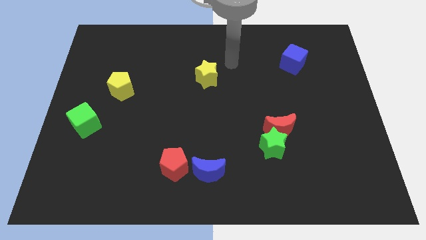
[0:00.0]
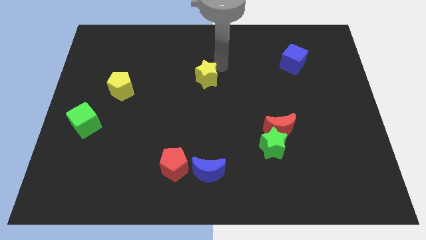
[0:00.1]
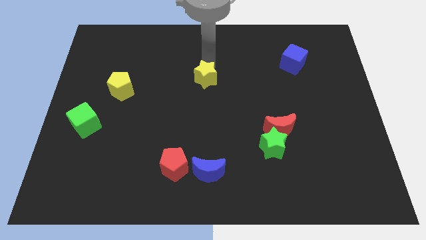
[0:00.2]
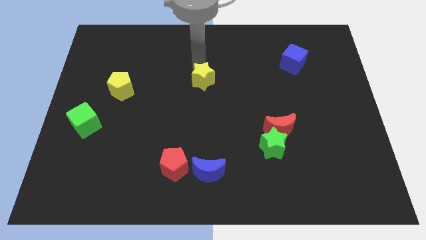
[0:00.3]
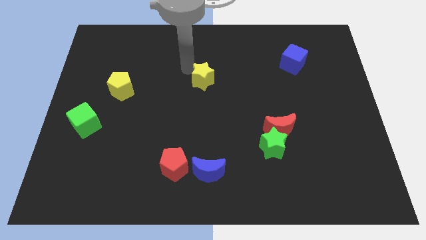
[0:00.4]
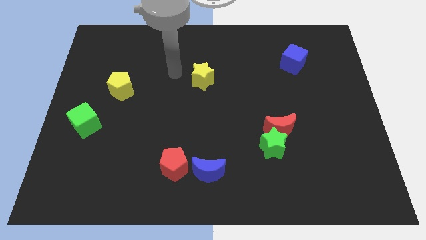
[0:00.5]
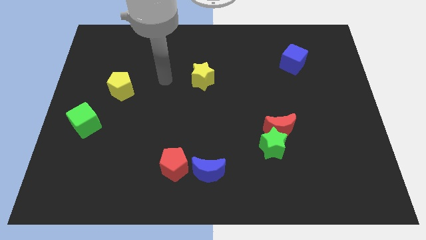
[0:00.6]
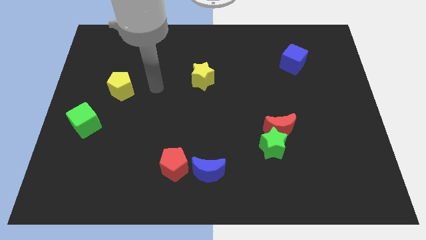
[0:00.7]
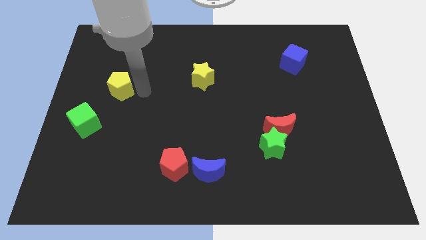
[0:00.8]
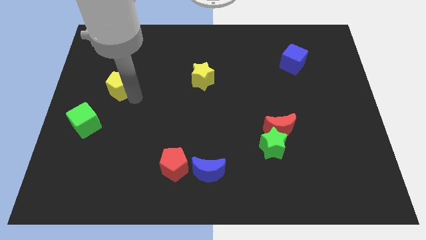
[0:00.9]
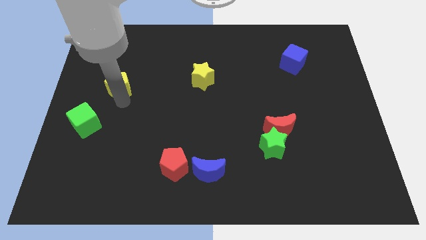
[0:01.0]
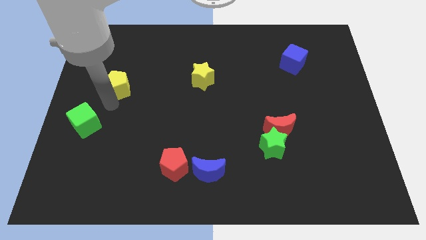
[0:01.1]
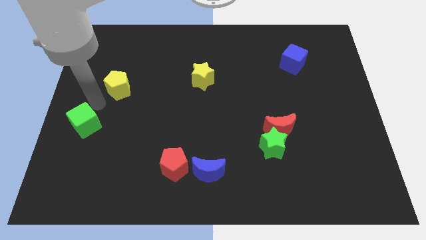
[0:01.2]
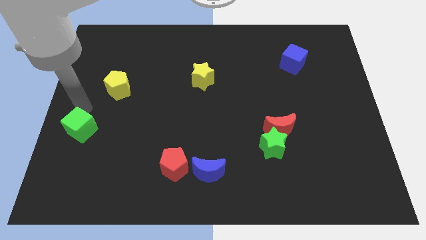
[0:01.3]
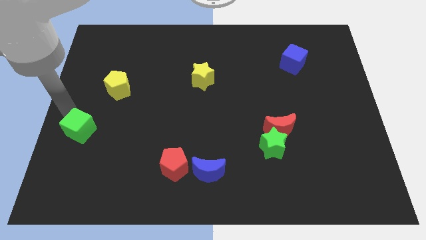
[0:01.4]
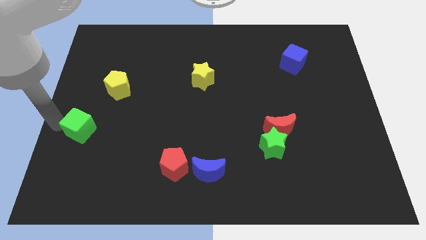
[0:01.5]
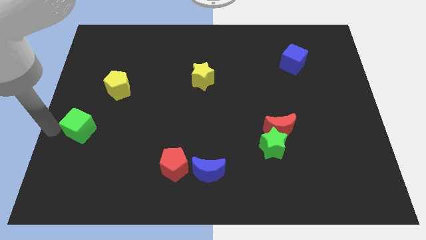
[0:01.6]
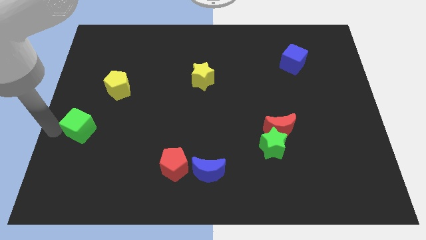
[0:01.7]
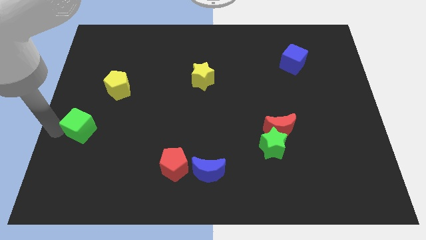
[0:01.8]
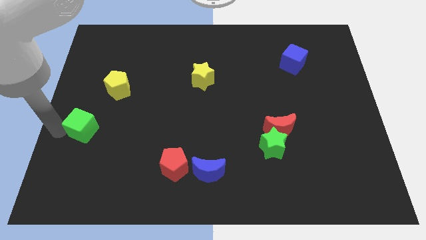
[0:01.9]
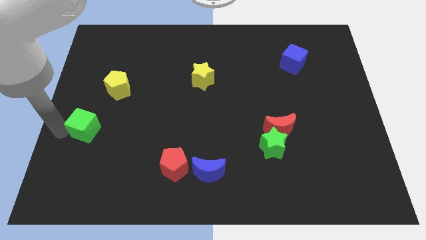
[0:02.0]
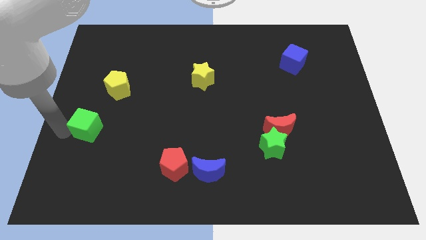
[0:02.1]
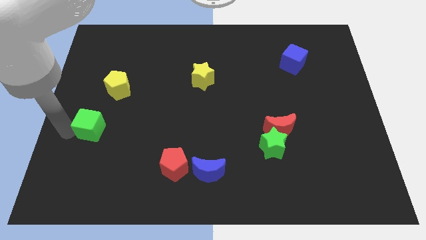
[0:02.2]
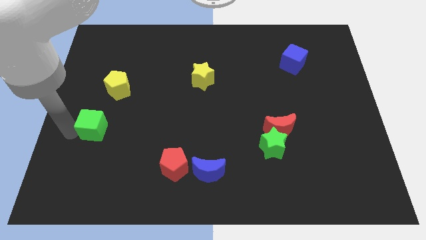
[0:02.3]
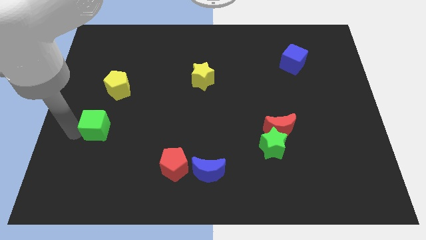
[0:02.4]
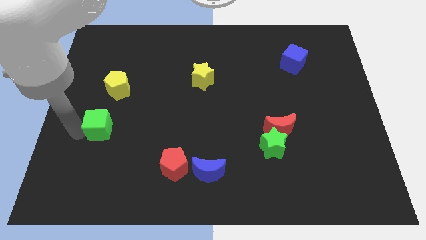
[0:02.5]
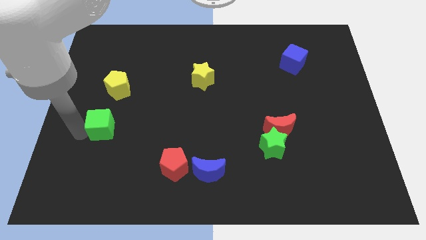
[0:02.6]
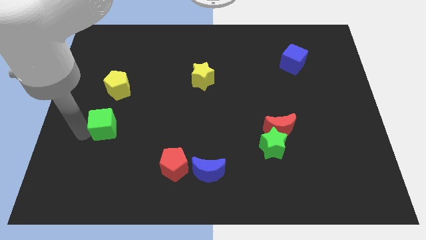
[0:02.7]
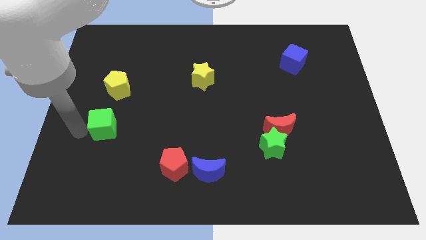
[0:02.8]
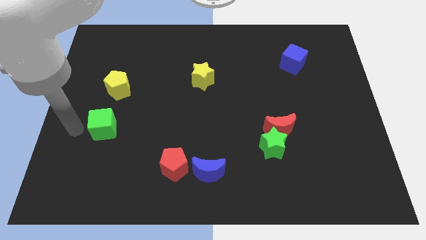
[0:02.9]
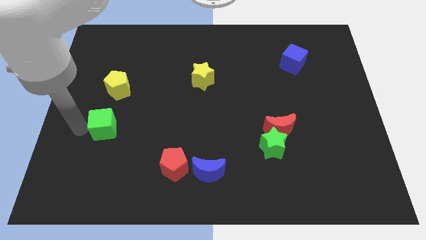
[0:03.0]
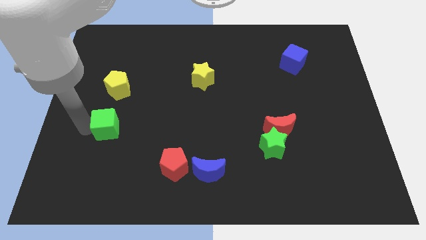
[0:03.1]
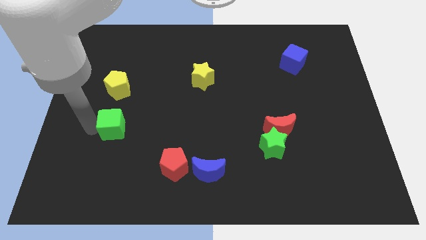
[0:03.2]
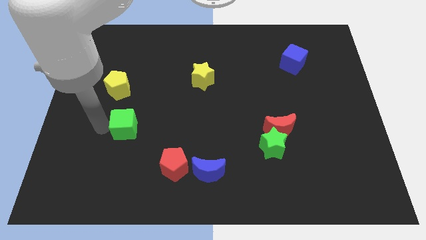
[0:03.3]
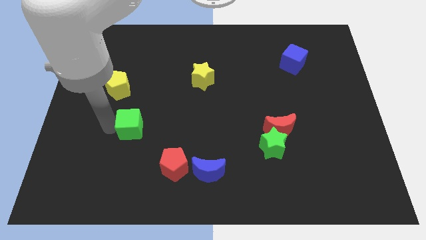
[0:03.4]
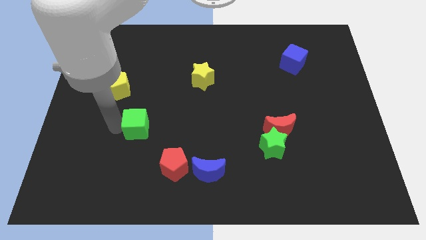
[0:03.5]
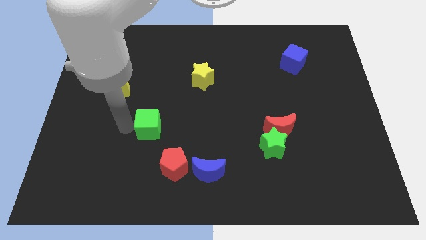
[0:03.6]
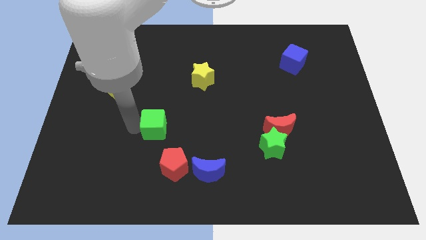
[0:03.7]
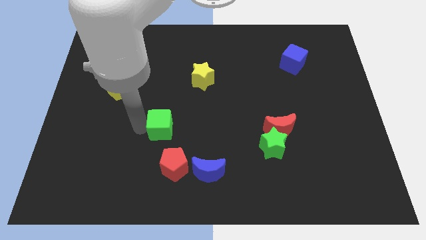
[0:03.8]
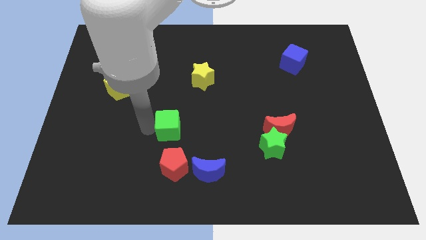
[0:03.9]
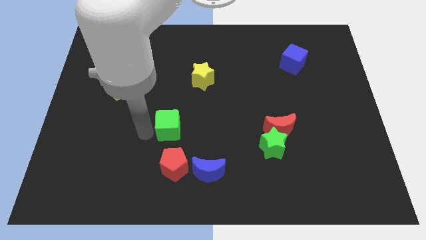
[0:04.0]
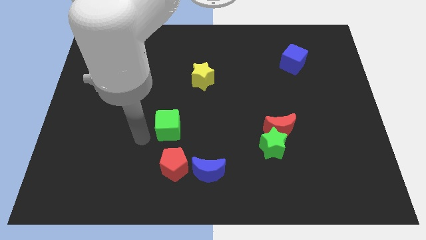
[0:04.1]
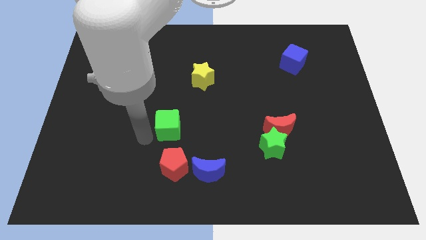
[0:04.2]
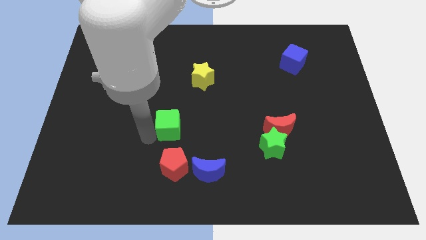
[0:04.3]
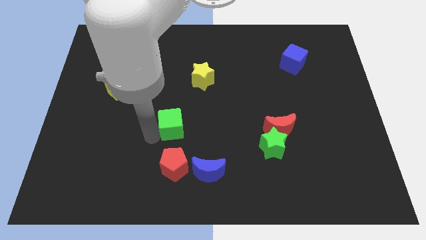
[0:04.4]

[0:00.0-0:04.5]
move the green cube right

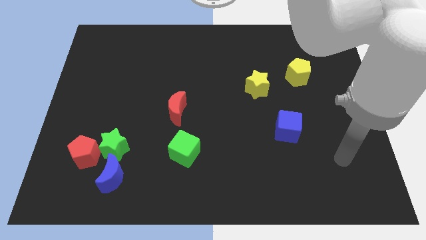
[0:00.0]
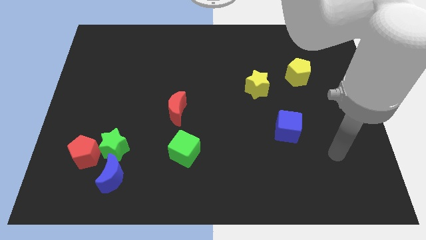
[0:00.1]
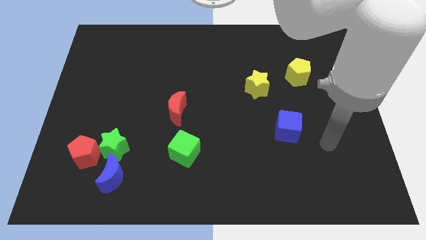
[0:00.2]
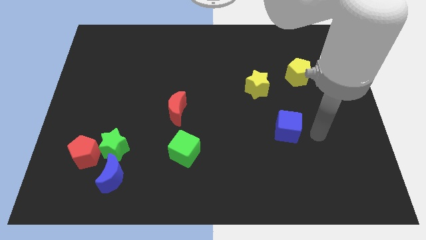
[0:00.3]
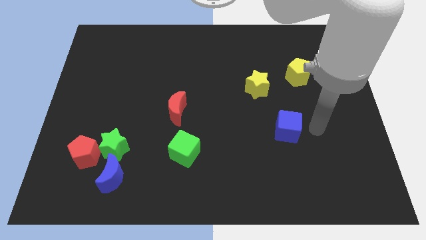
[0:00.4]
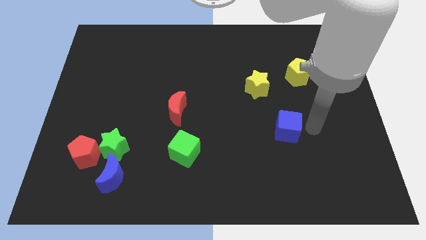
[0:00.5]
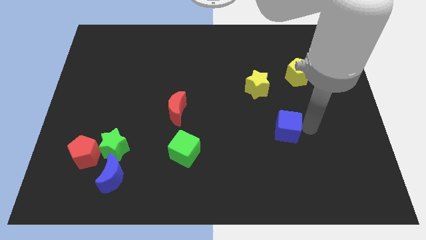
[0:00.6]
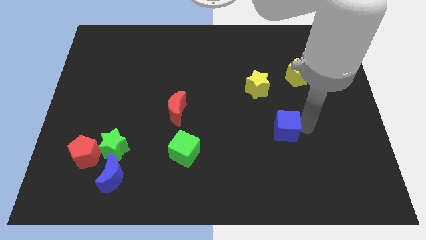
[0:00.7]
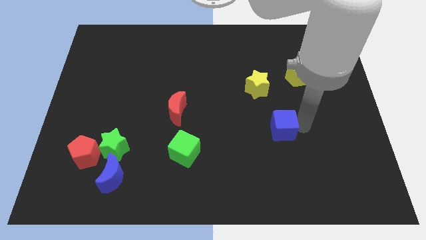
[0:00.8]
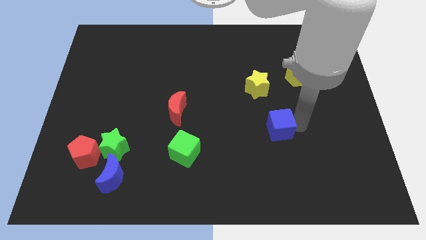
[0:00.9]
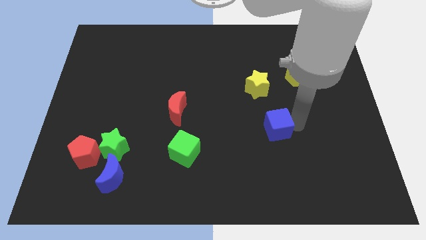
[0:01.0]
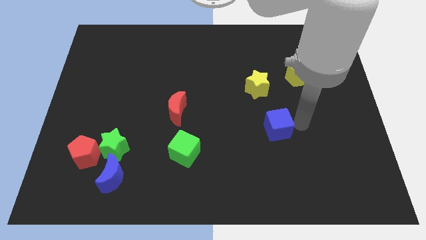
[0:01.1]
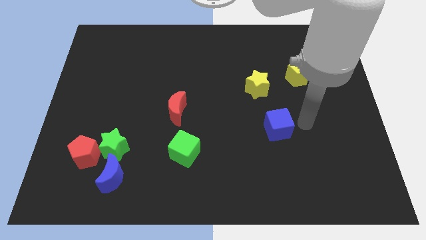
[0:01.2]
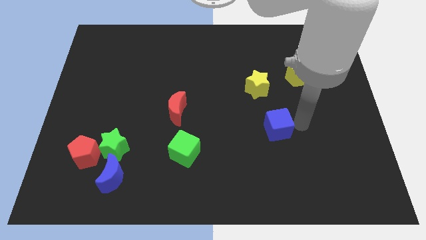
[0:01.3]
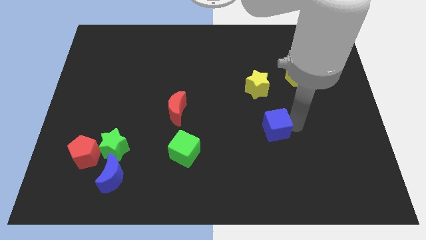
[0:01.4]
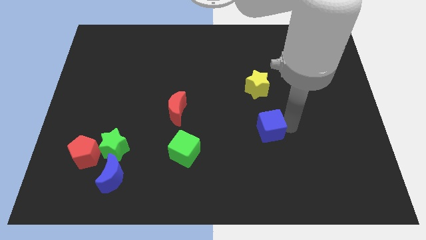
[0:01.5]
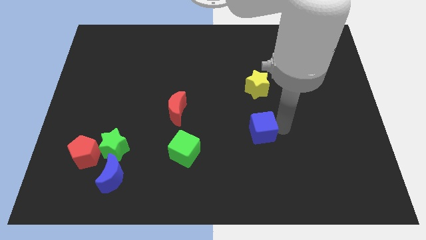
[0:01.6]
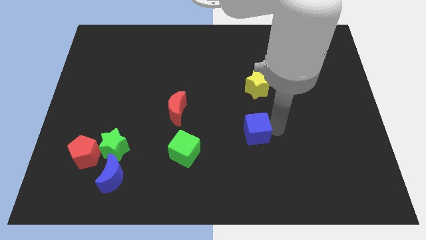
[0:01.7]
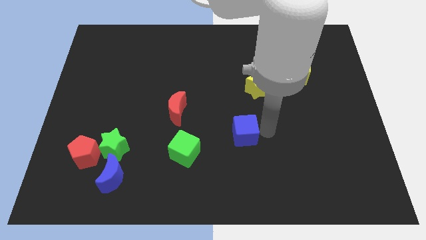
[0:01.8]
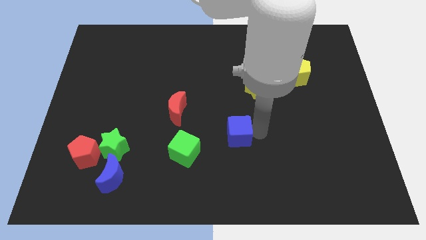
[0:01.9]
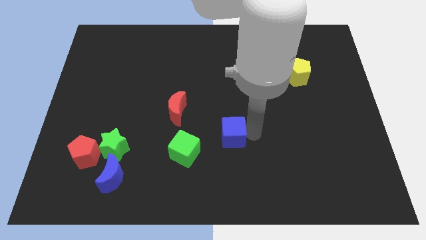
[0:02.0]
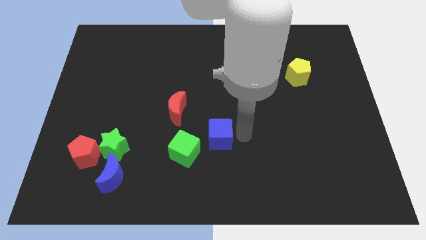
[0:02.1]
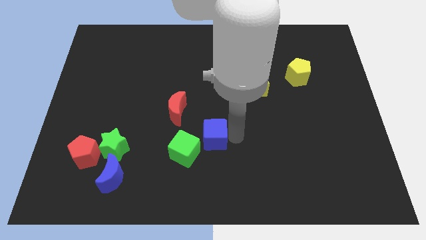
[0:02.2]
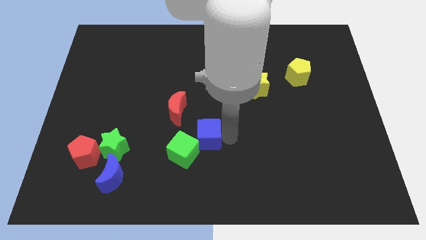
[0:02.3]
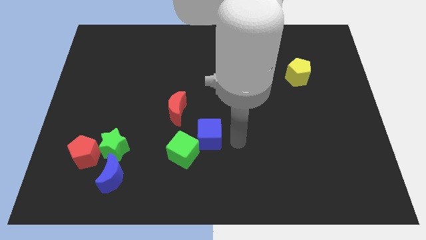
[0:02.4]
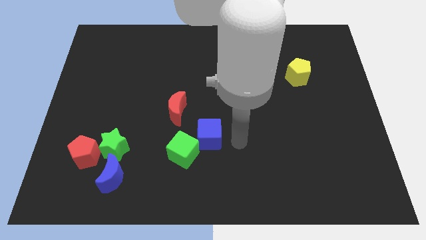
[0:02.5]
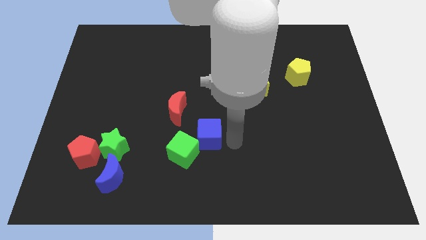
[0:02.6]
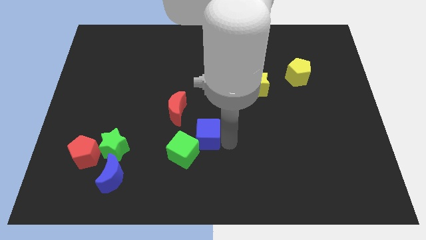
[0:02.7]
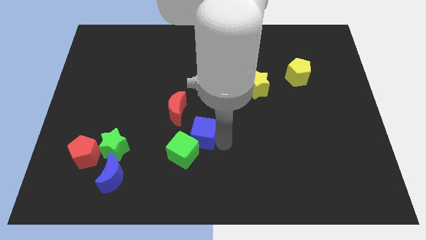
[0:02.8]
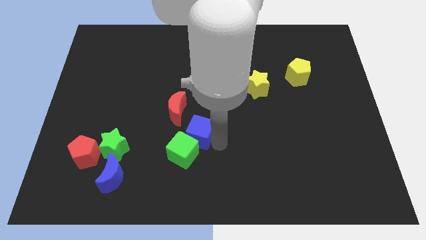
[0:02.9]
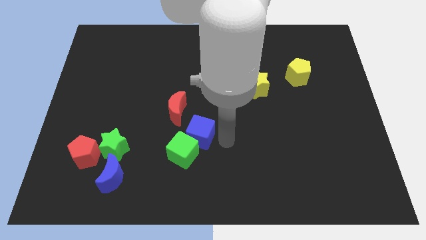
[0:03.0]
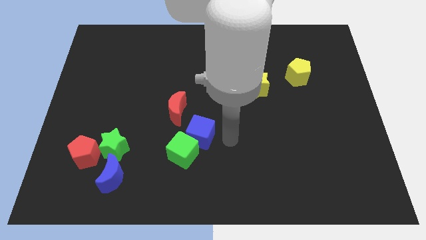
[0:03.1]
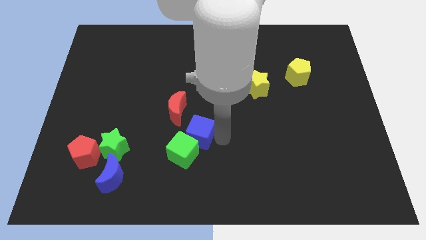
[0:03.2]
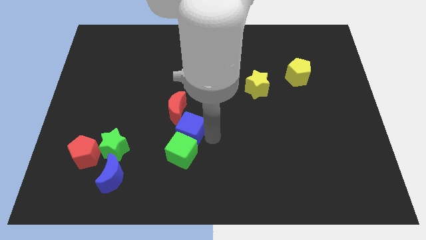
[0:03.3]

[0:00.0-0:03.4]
move the blue cube left
